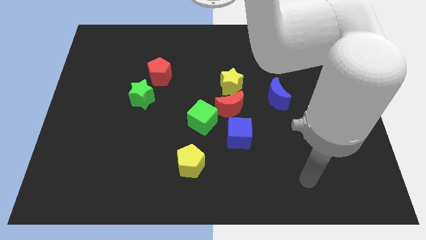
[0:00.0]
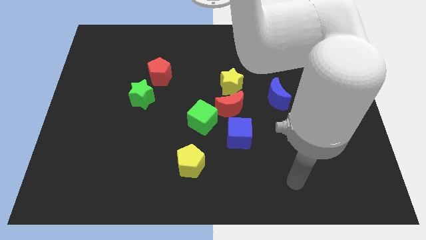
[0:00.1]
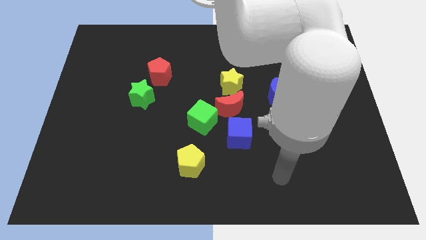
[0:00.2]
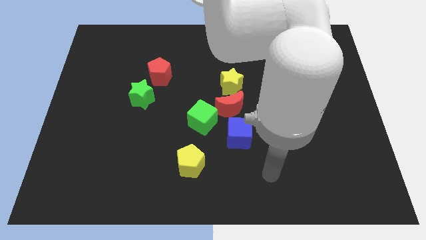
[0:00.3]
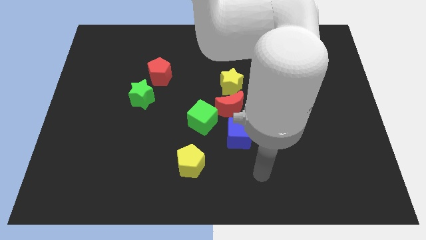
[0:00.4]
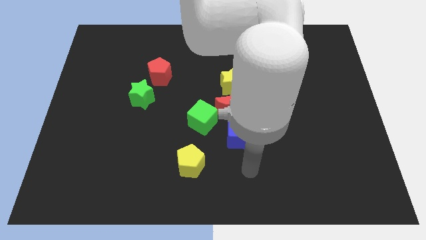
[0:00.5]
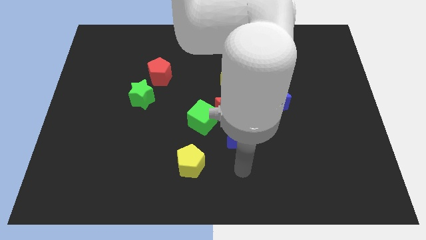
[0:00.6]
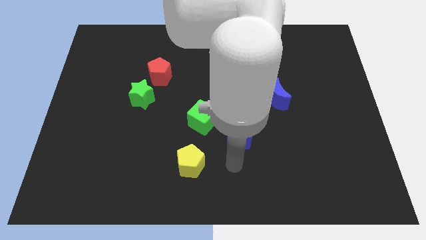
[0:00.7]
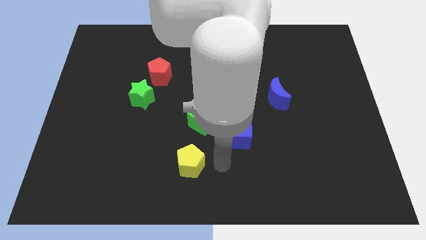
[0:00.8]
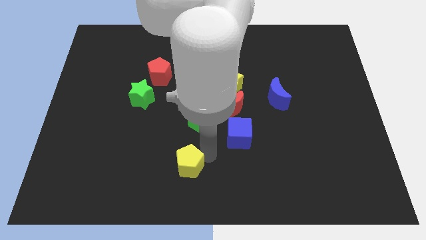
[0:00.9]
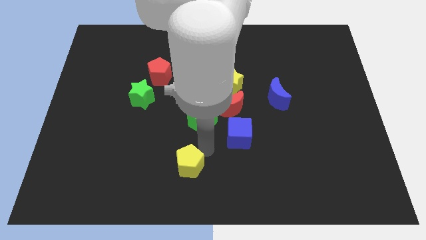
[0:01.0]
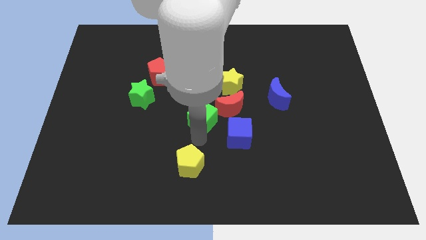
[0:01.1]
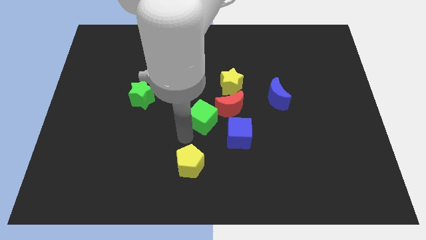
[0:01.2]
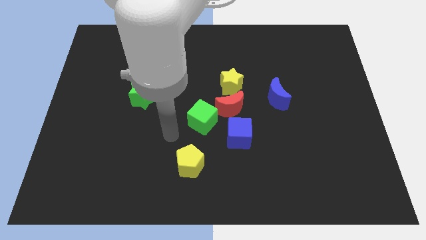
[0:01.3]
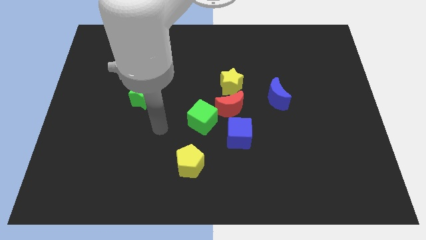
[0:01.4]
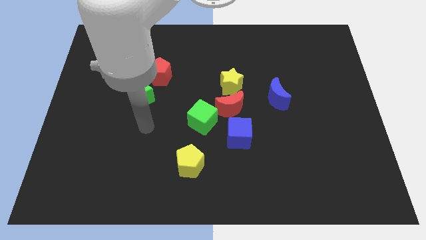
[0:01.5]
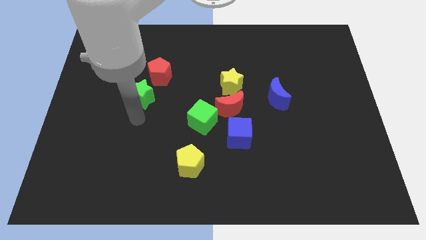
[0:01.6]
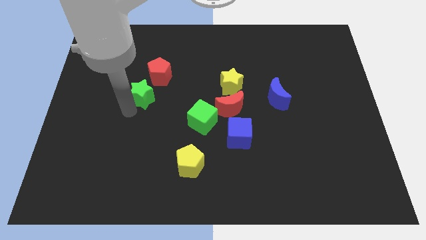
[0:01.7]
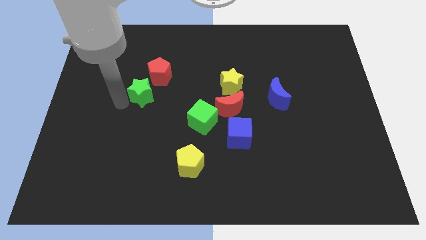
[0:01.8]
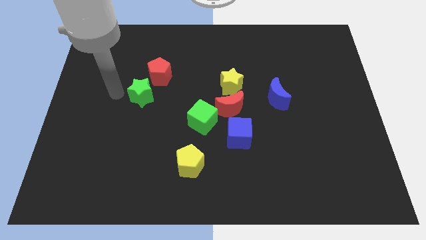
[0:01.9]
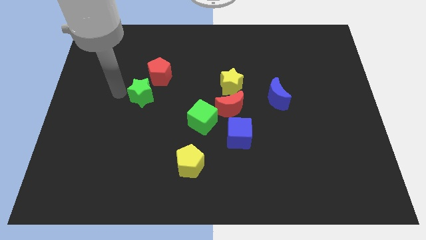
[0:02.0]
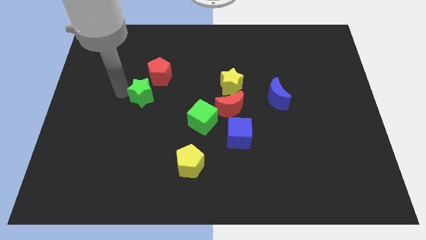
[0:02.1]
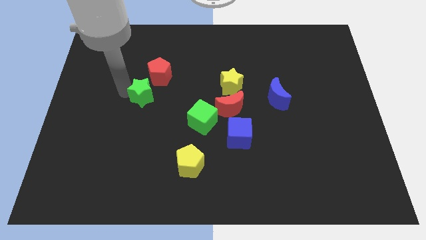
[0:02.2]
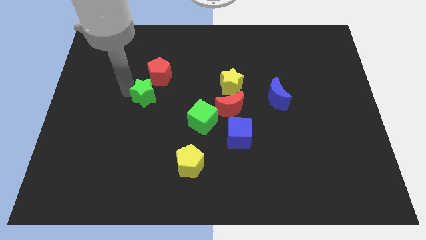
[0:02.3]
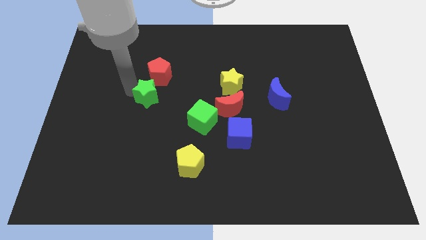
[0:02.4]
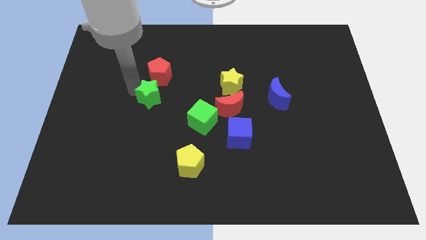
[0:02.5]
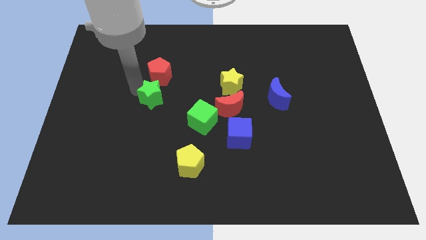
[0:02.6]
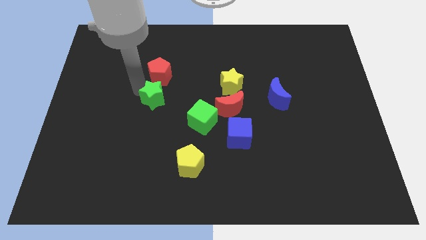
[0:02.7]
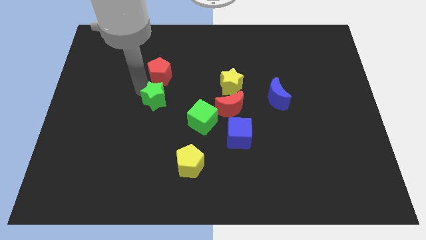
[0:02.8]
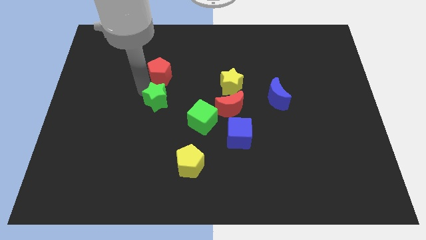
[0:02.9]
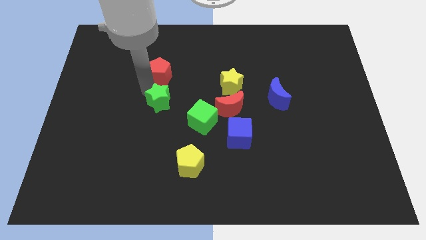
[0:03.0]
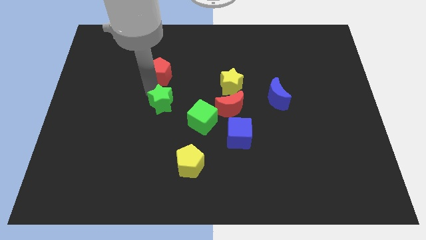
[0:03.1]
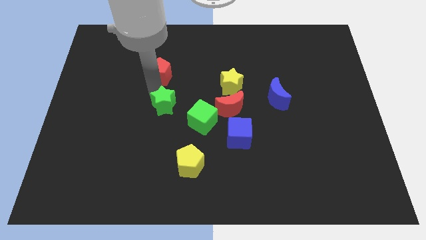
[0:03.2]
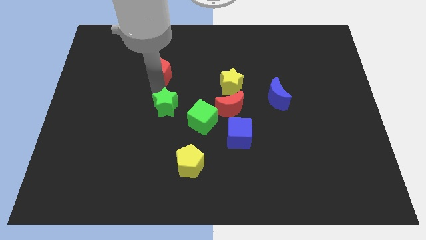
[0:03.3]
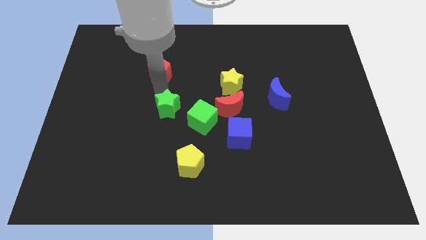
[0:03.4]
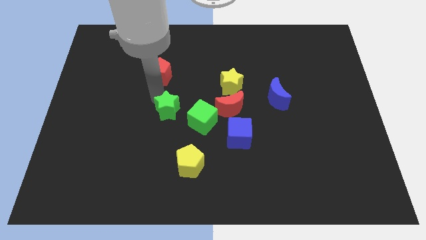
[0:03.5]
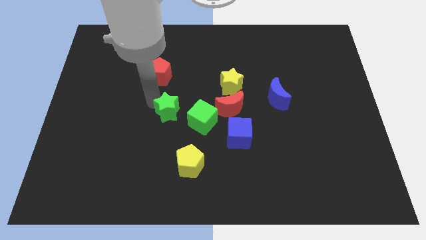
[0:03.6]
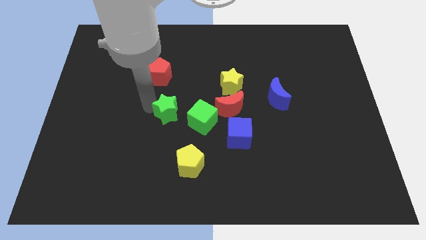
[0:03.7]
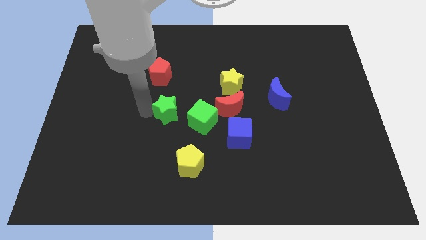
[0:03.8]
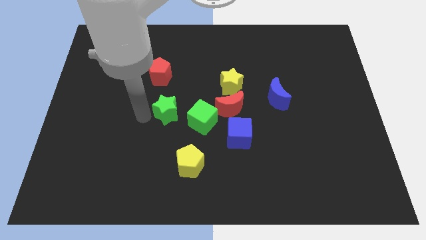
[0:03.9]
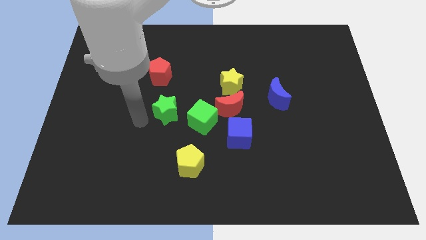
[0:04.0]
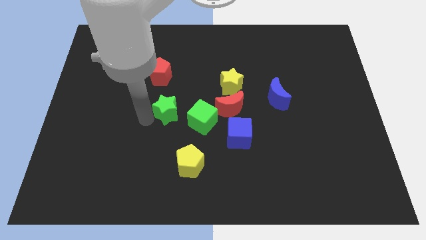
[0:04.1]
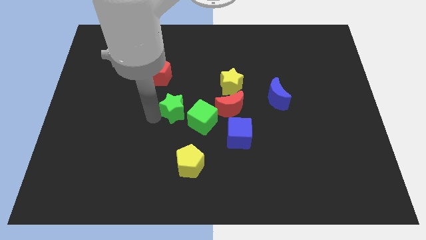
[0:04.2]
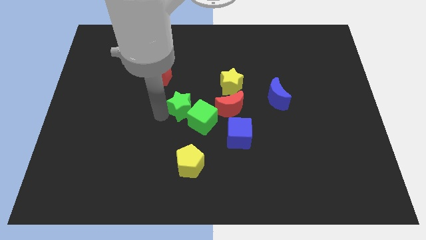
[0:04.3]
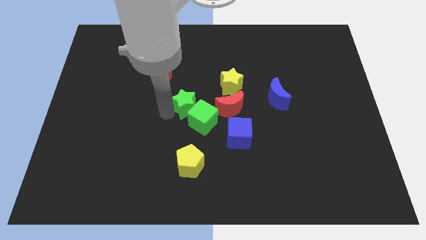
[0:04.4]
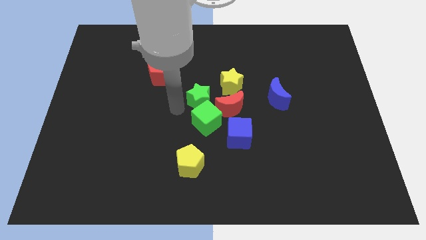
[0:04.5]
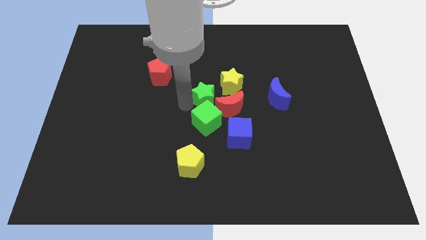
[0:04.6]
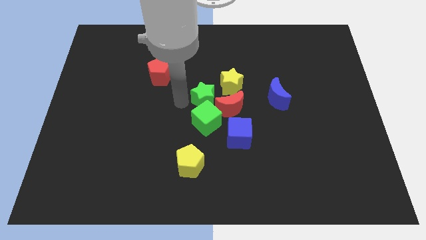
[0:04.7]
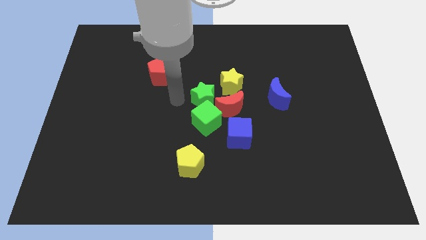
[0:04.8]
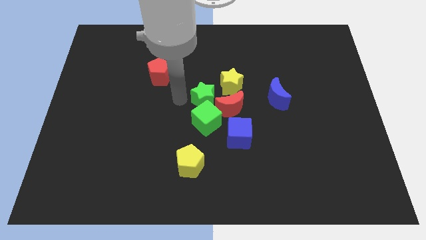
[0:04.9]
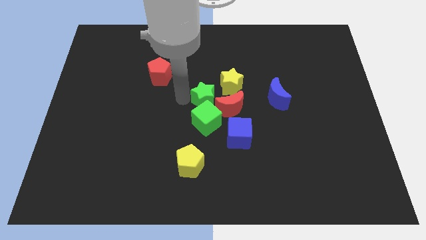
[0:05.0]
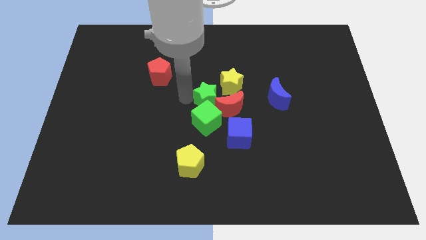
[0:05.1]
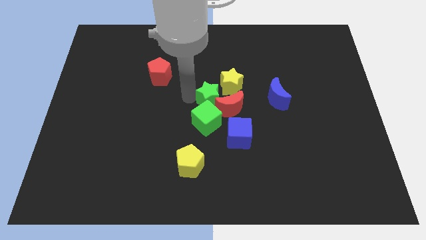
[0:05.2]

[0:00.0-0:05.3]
push the green star left of the blue moon

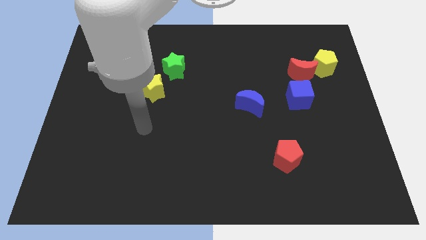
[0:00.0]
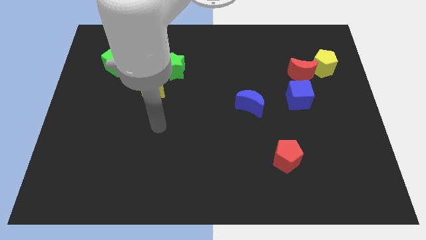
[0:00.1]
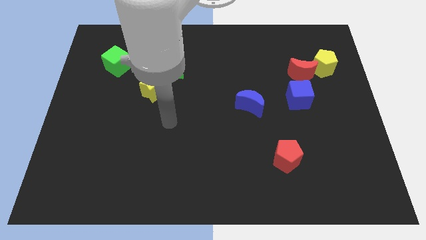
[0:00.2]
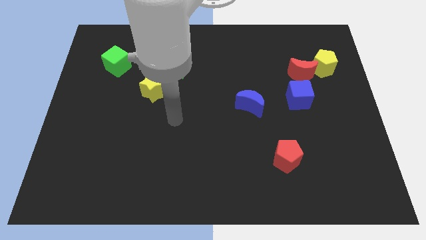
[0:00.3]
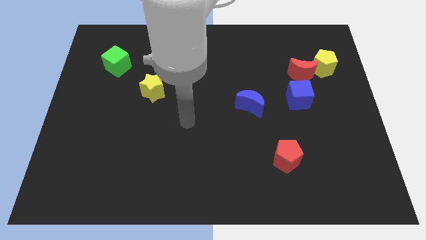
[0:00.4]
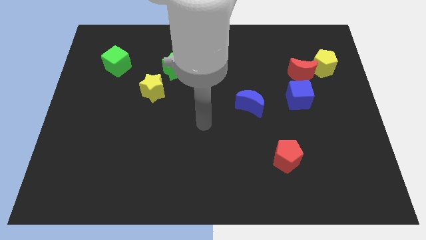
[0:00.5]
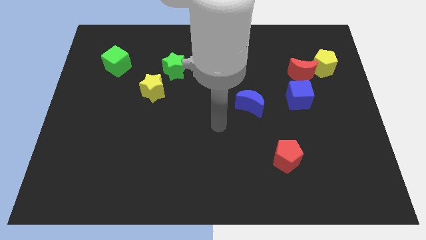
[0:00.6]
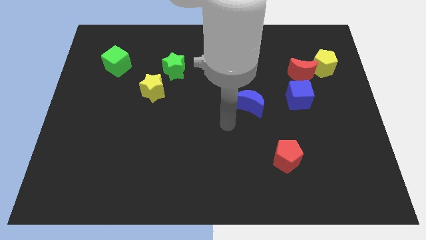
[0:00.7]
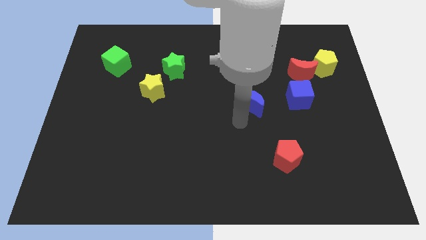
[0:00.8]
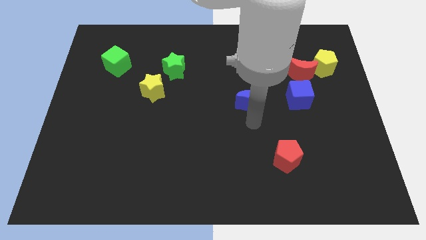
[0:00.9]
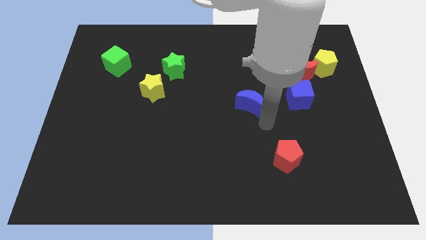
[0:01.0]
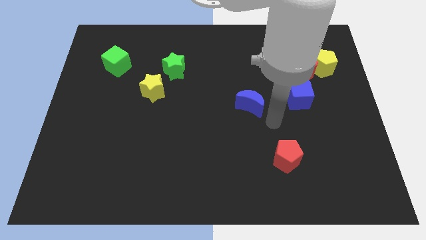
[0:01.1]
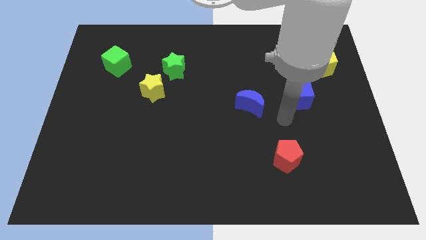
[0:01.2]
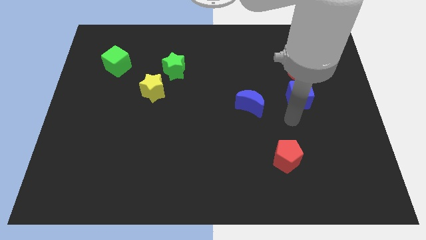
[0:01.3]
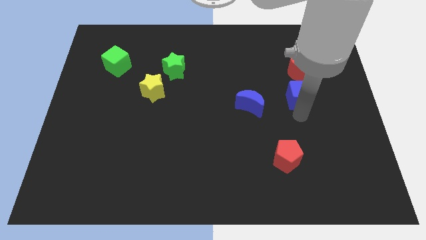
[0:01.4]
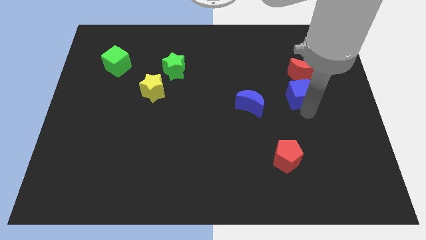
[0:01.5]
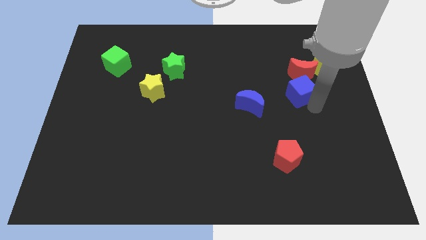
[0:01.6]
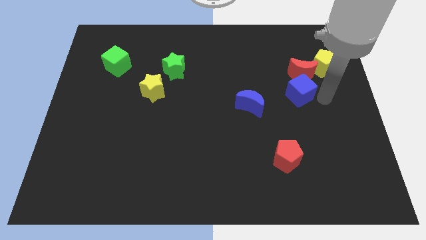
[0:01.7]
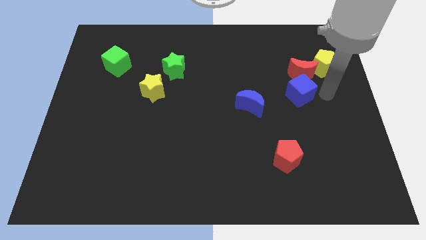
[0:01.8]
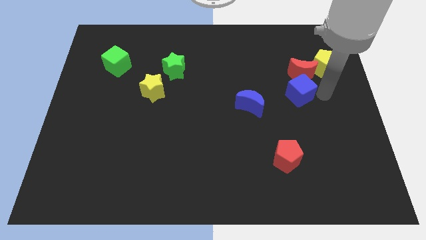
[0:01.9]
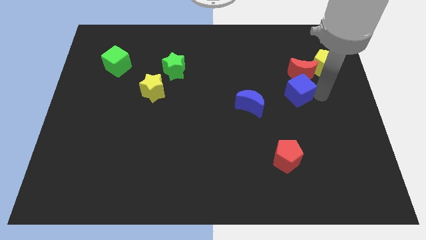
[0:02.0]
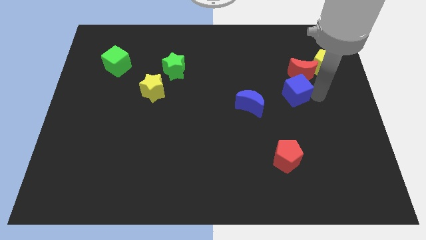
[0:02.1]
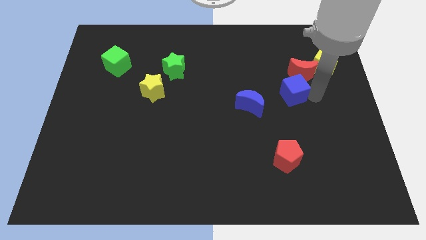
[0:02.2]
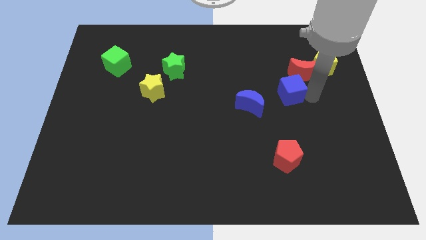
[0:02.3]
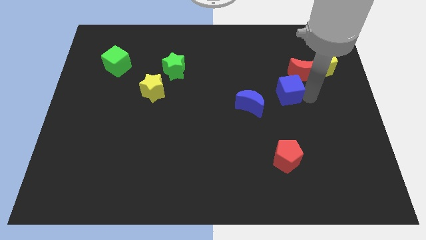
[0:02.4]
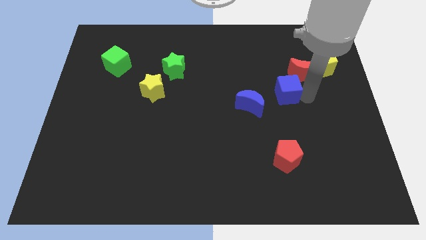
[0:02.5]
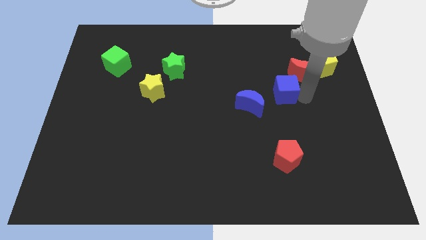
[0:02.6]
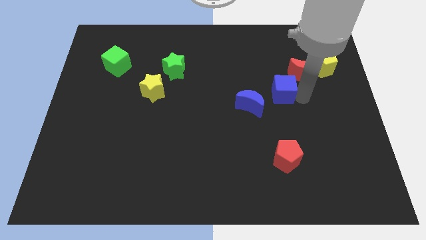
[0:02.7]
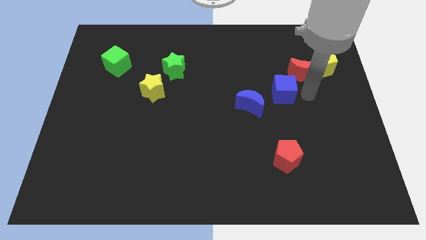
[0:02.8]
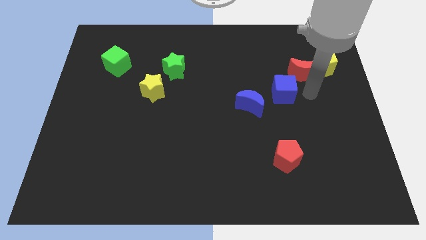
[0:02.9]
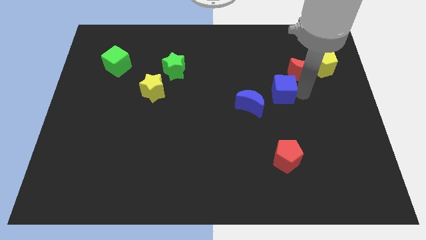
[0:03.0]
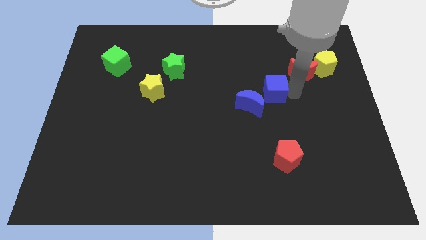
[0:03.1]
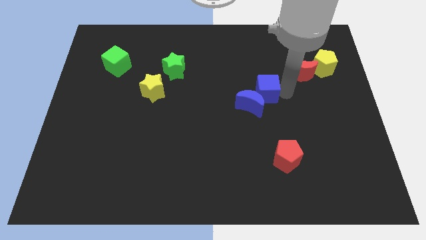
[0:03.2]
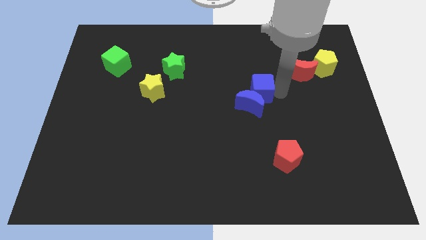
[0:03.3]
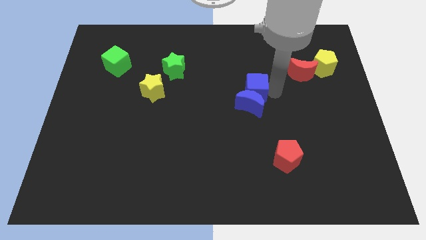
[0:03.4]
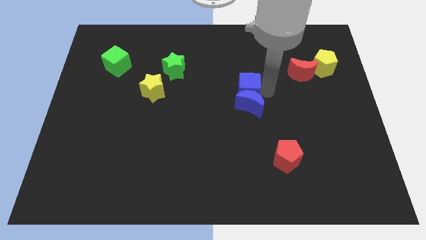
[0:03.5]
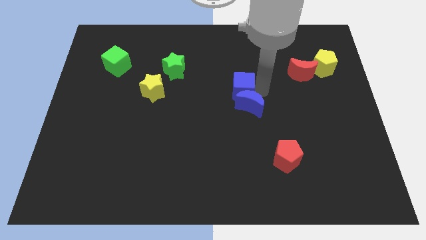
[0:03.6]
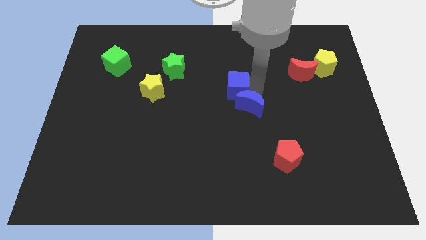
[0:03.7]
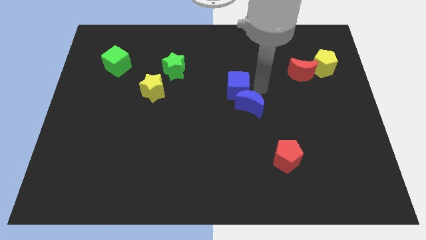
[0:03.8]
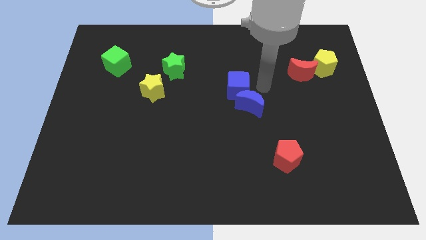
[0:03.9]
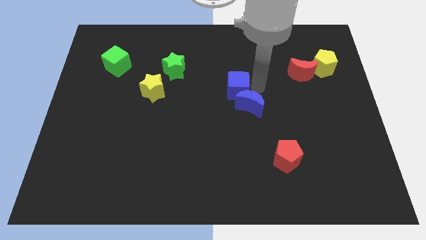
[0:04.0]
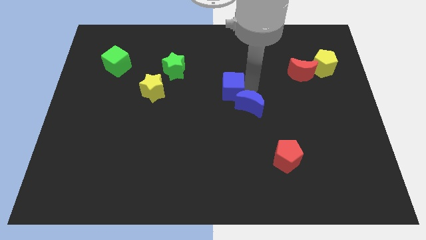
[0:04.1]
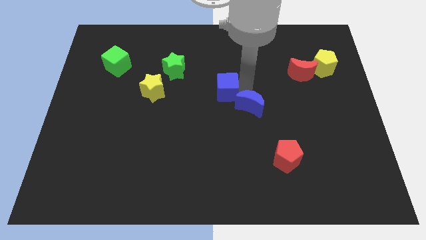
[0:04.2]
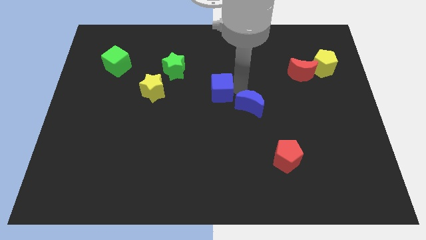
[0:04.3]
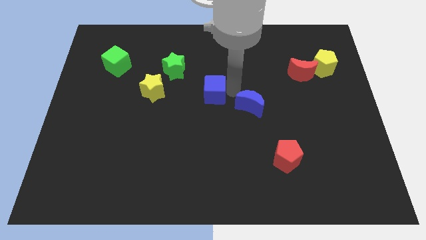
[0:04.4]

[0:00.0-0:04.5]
slide the blue cube to the bottom right side of the green star
